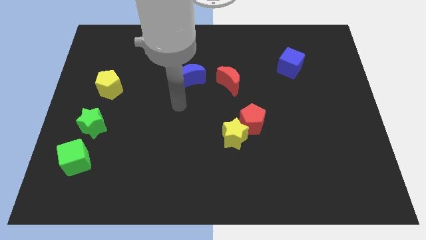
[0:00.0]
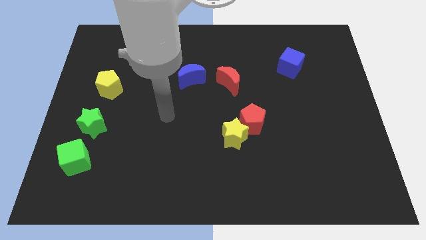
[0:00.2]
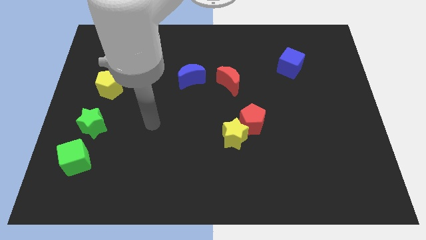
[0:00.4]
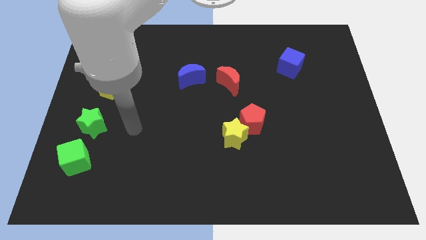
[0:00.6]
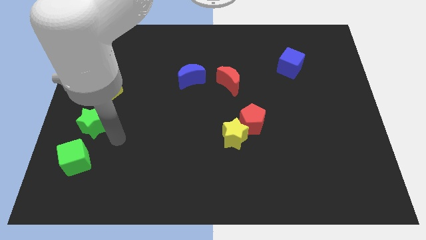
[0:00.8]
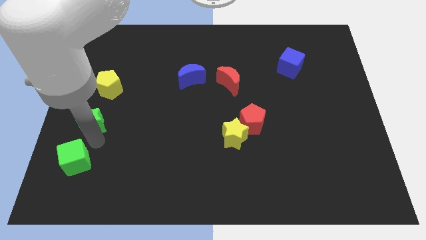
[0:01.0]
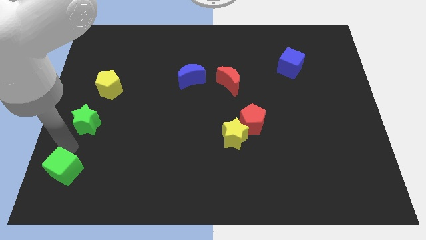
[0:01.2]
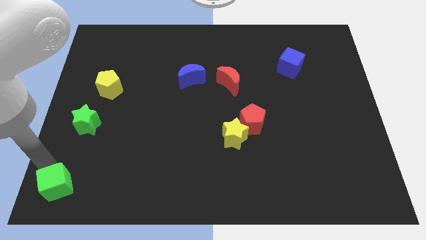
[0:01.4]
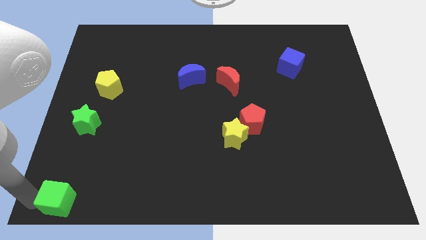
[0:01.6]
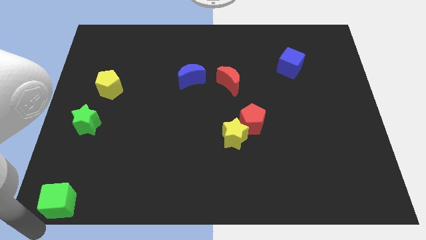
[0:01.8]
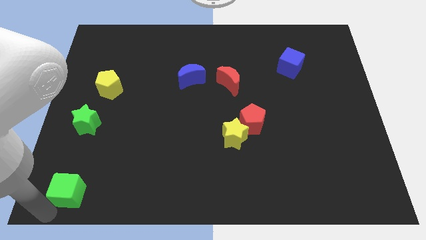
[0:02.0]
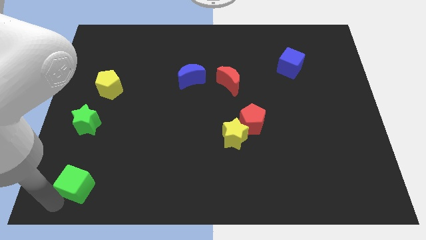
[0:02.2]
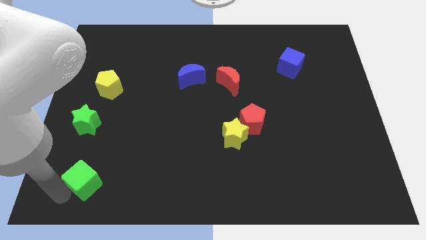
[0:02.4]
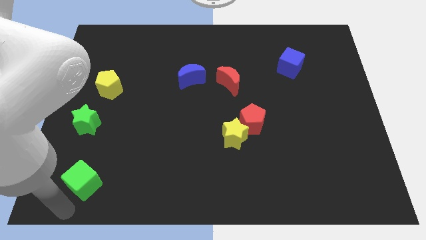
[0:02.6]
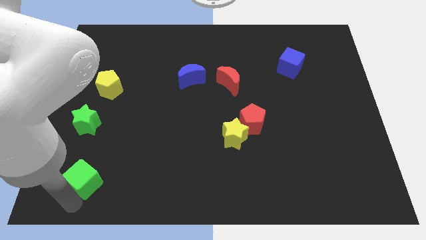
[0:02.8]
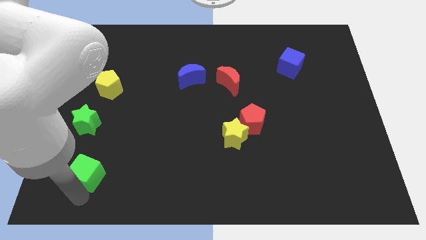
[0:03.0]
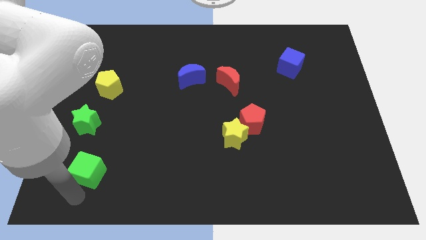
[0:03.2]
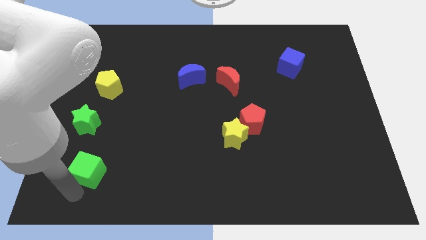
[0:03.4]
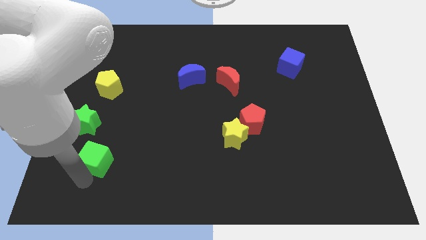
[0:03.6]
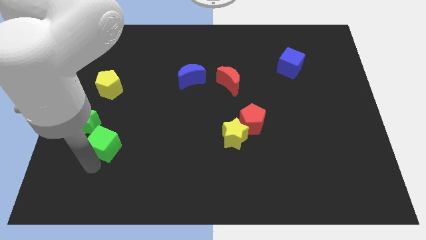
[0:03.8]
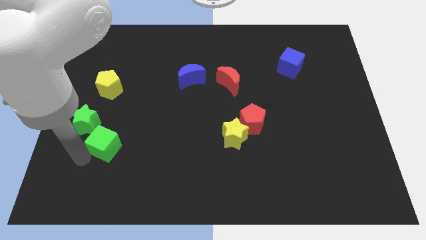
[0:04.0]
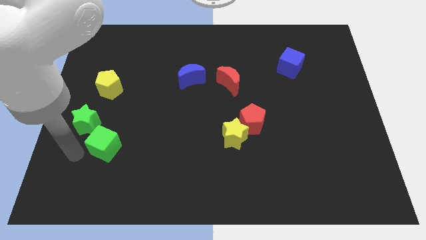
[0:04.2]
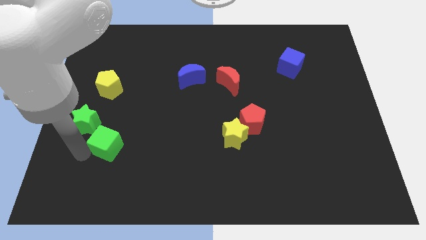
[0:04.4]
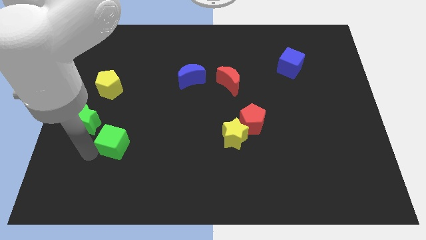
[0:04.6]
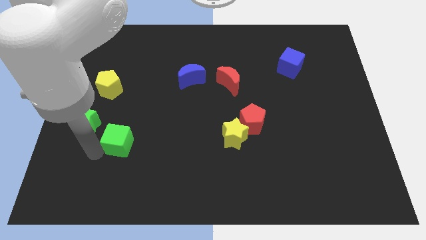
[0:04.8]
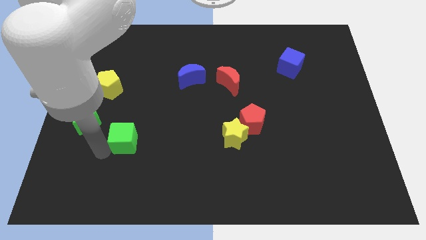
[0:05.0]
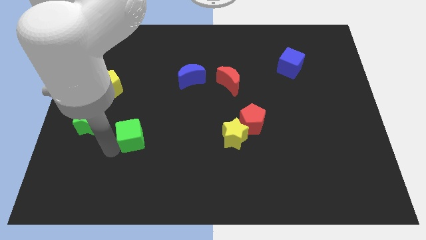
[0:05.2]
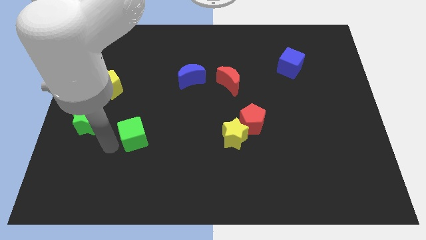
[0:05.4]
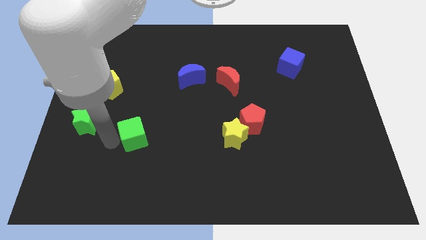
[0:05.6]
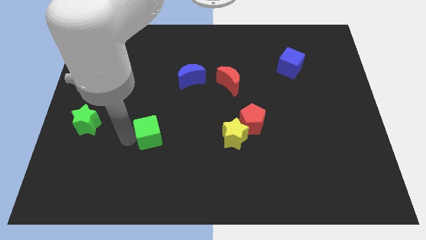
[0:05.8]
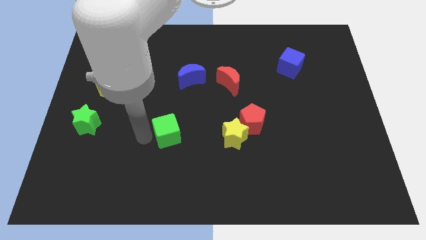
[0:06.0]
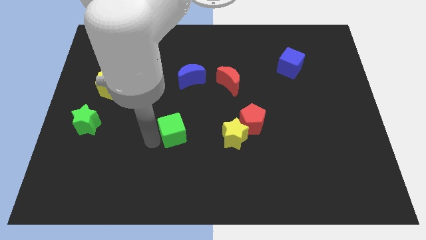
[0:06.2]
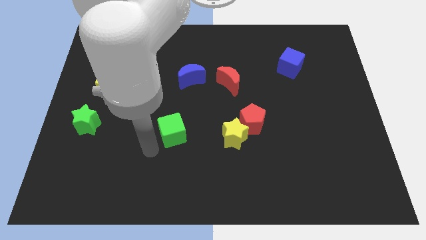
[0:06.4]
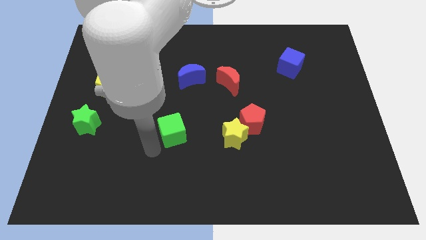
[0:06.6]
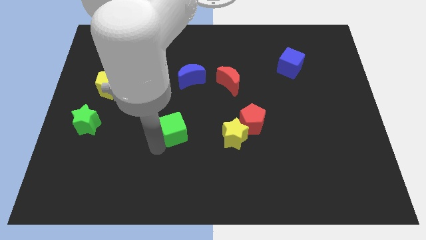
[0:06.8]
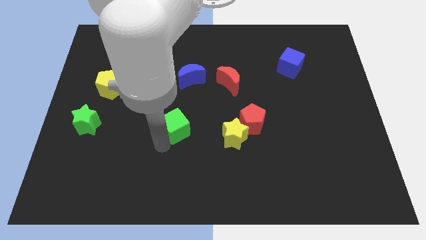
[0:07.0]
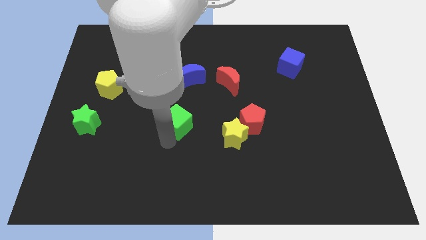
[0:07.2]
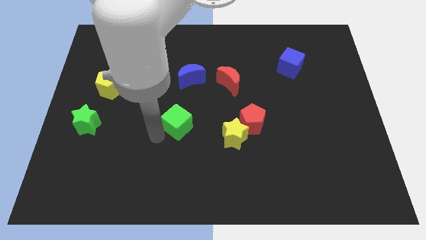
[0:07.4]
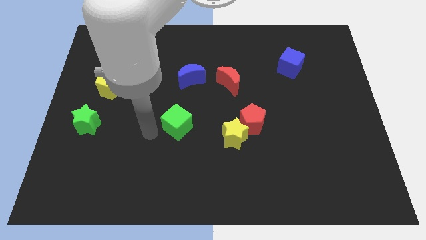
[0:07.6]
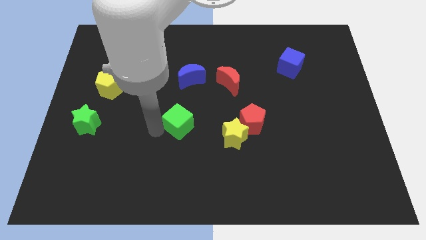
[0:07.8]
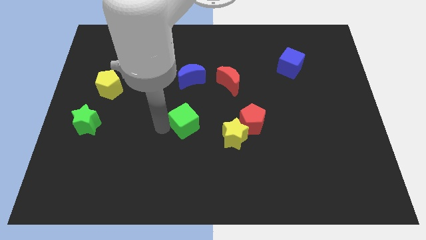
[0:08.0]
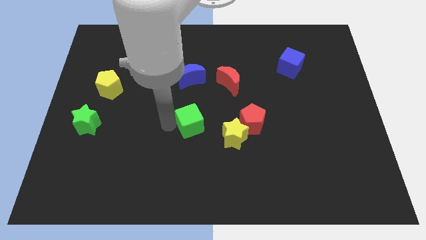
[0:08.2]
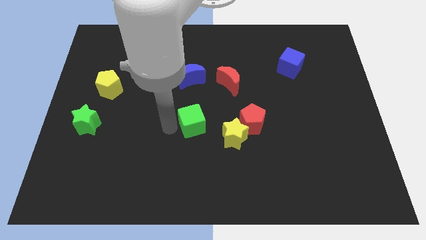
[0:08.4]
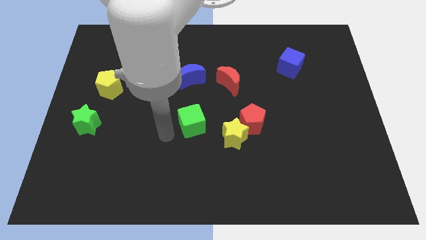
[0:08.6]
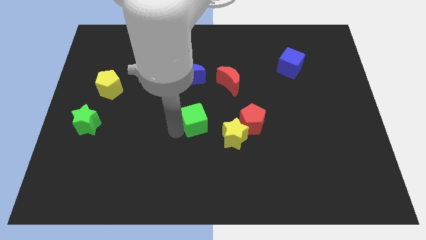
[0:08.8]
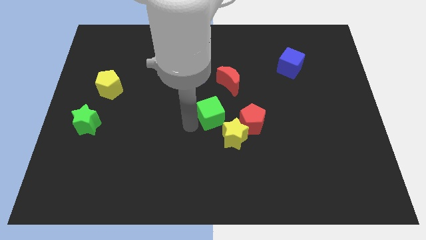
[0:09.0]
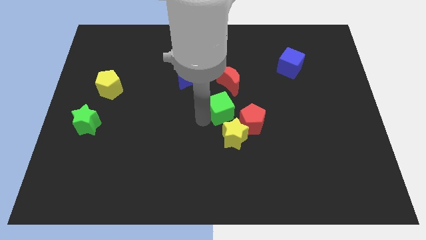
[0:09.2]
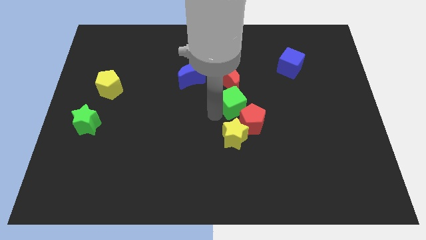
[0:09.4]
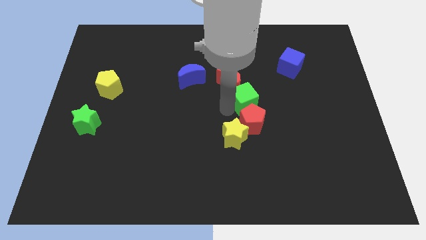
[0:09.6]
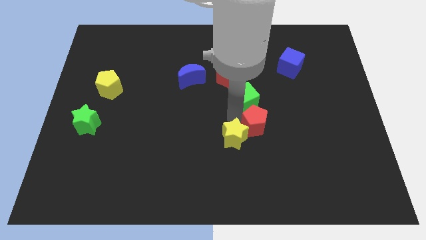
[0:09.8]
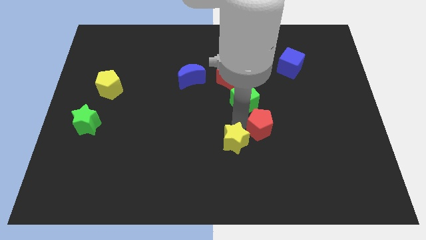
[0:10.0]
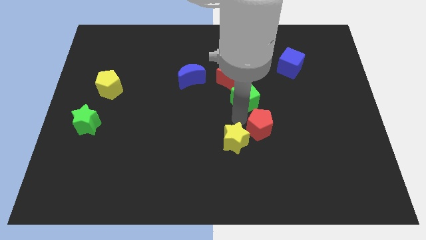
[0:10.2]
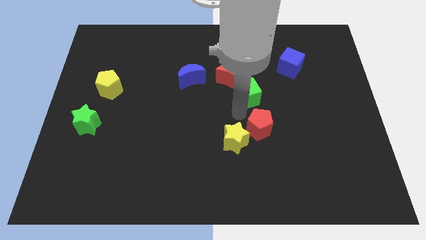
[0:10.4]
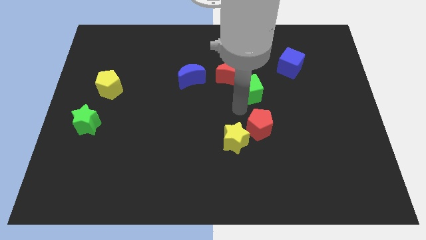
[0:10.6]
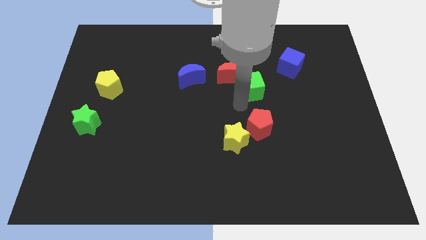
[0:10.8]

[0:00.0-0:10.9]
put the green cube right of the blue moon

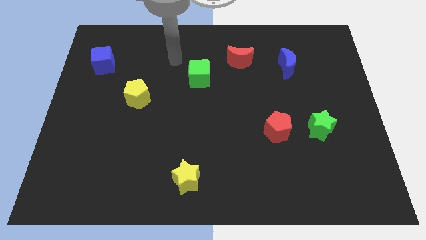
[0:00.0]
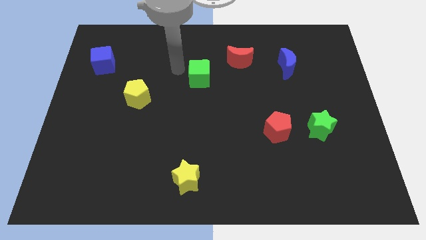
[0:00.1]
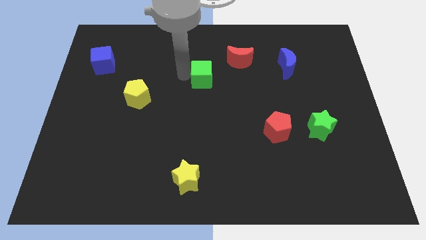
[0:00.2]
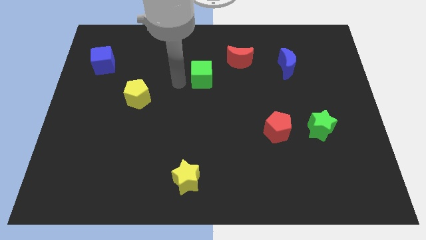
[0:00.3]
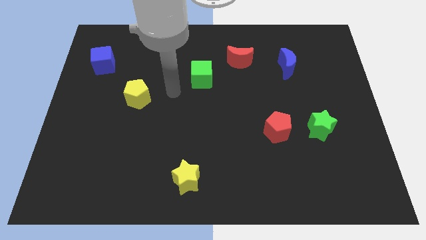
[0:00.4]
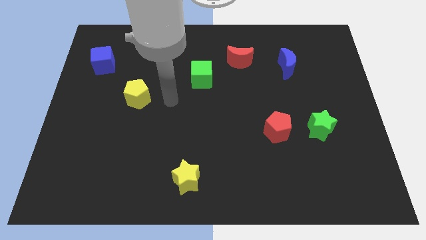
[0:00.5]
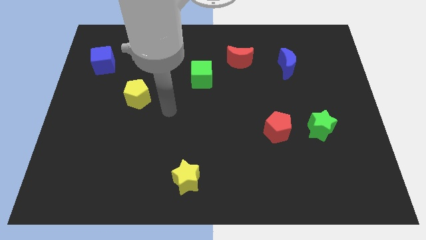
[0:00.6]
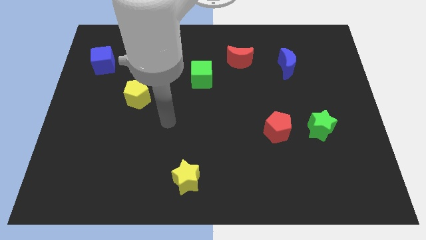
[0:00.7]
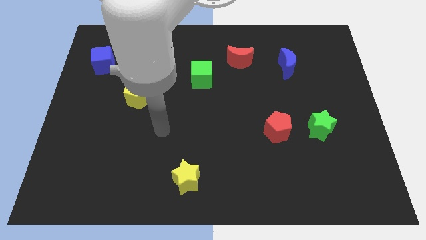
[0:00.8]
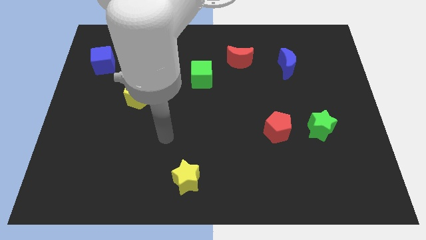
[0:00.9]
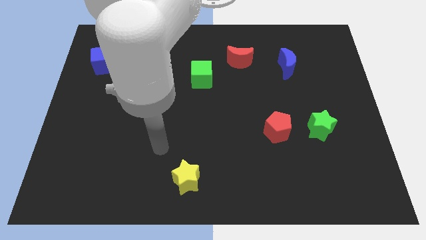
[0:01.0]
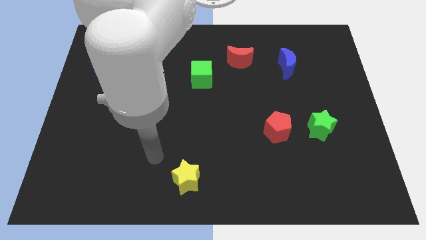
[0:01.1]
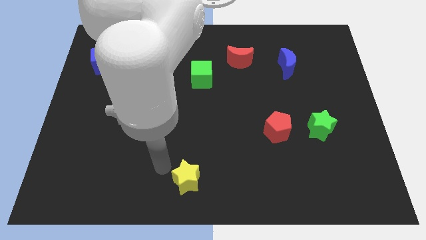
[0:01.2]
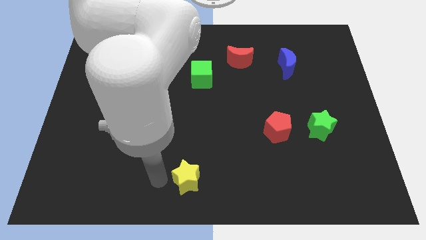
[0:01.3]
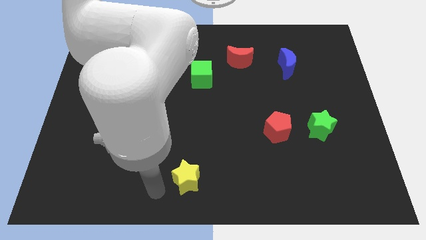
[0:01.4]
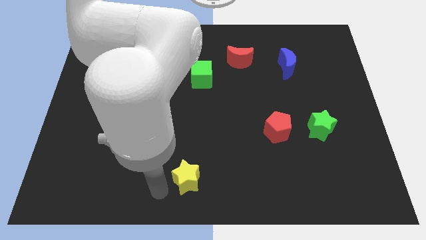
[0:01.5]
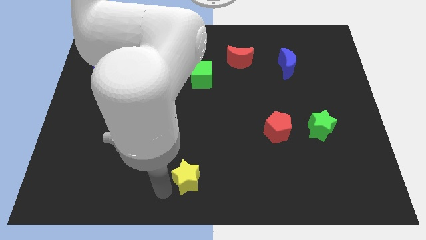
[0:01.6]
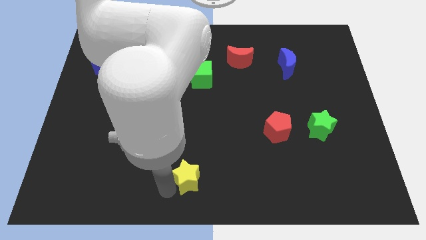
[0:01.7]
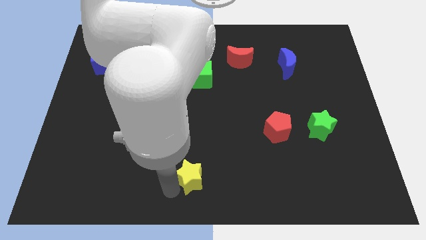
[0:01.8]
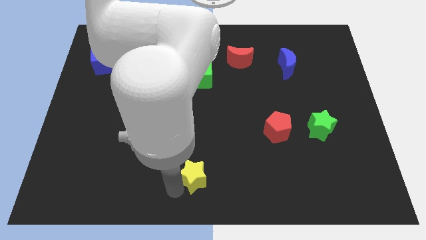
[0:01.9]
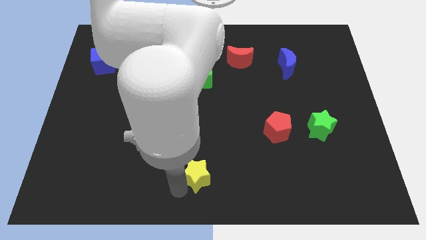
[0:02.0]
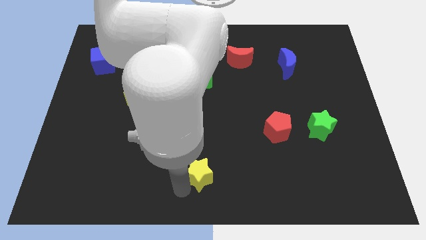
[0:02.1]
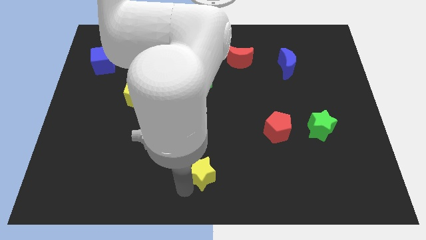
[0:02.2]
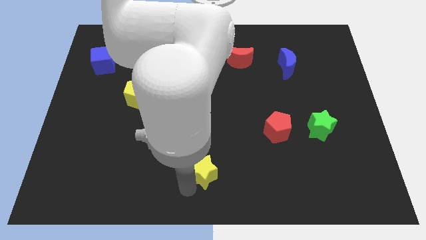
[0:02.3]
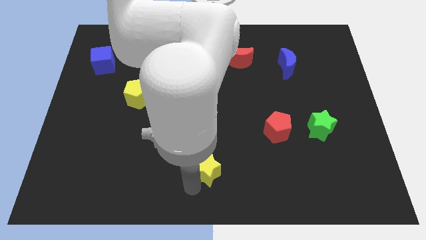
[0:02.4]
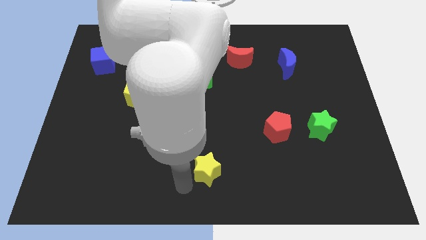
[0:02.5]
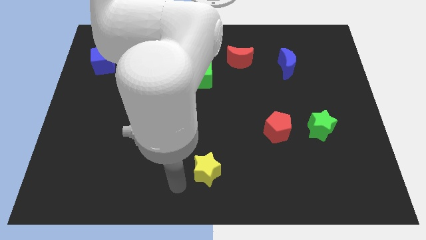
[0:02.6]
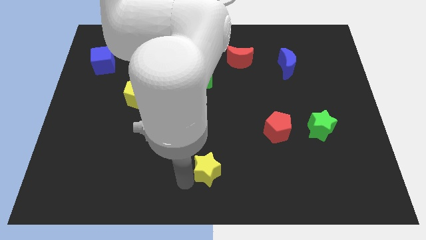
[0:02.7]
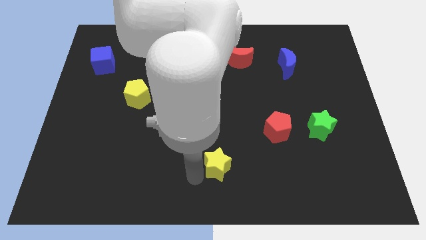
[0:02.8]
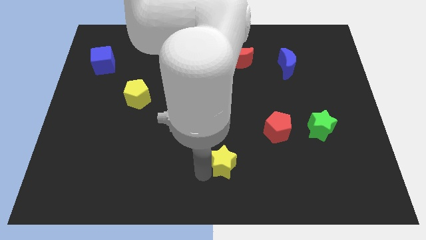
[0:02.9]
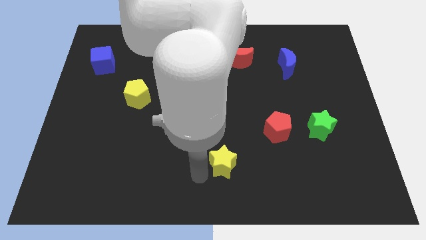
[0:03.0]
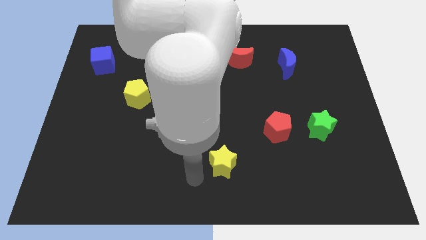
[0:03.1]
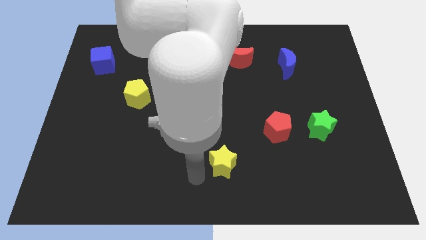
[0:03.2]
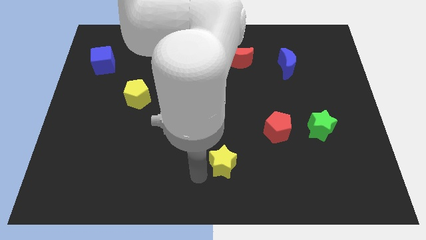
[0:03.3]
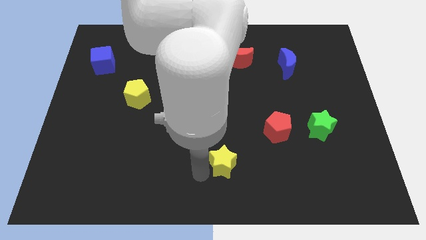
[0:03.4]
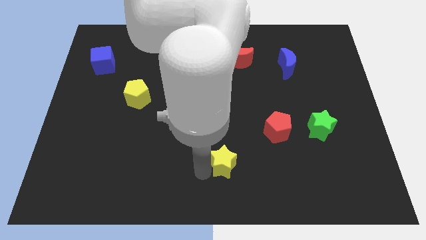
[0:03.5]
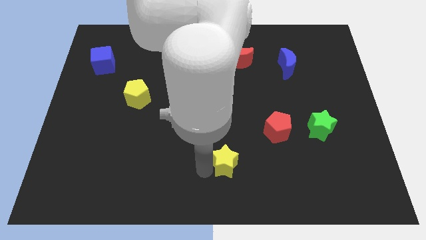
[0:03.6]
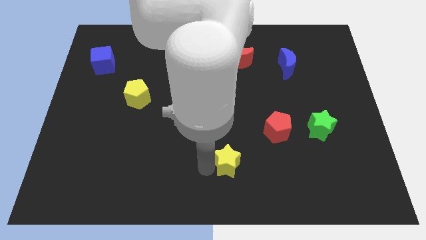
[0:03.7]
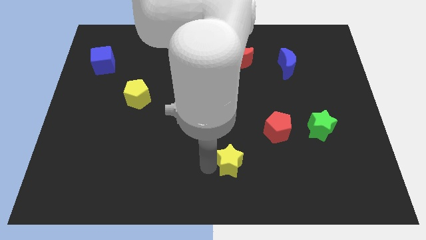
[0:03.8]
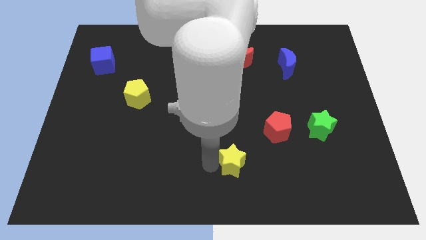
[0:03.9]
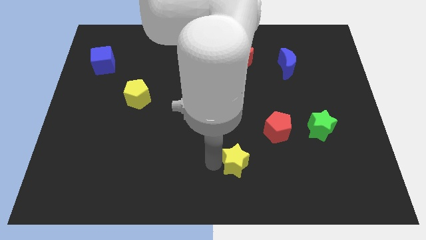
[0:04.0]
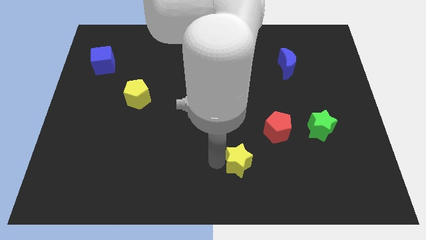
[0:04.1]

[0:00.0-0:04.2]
push the yellow star to the bottom left side of the red pentagon
